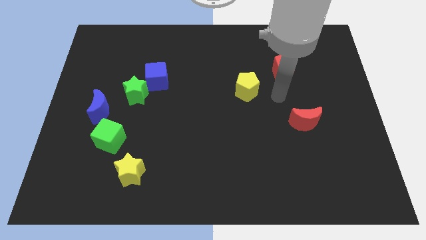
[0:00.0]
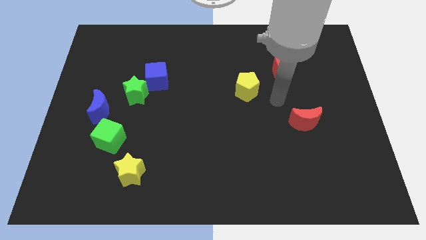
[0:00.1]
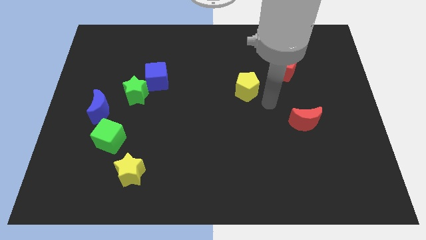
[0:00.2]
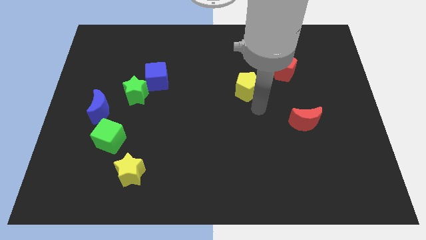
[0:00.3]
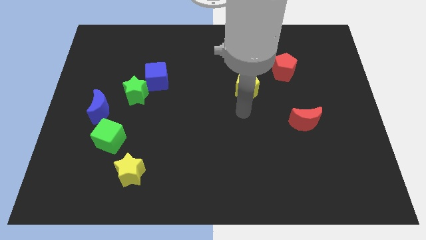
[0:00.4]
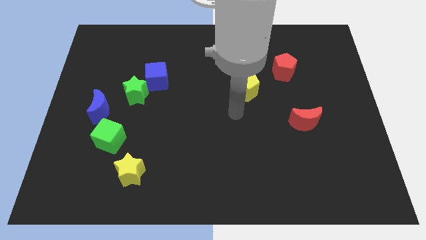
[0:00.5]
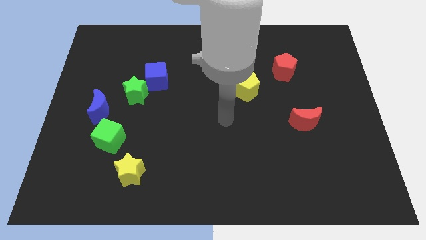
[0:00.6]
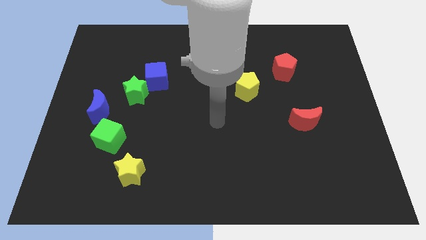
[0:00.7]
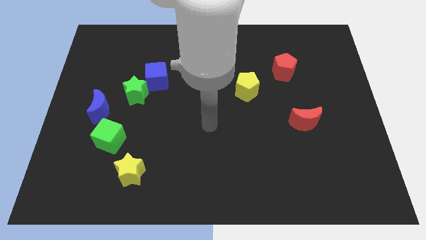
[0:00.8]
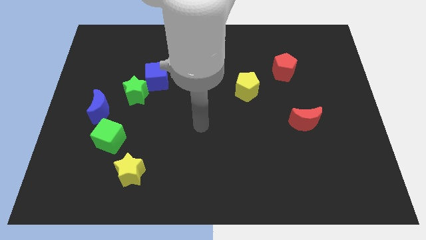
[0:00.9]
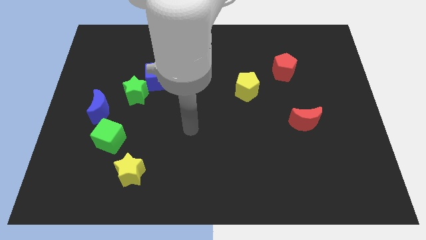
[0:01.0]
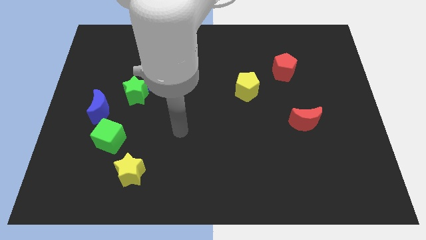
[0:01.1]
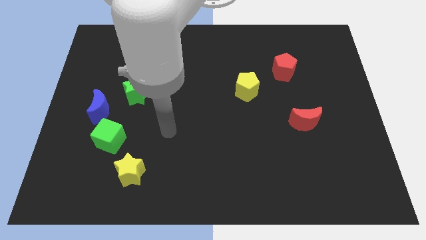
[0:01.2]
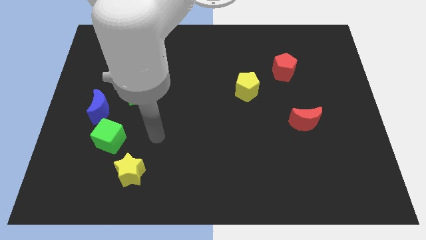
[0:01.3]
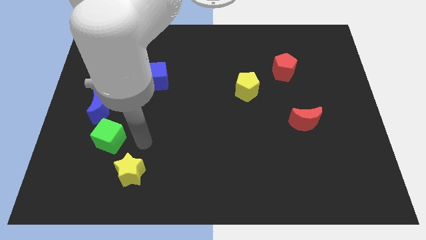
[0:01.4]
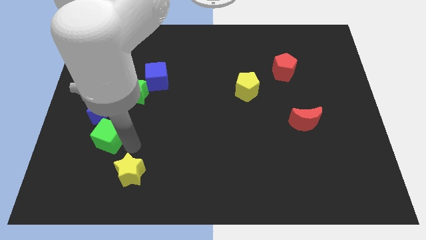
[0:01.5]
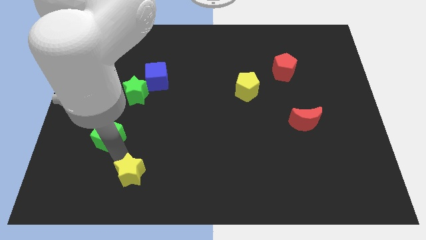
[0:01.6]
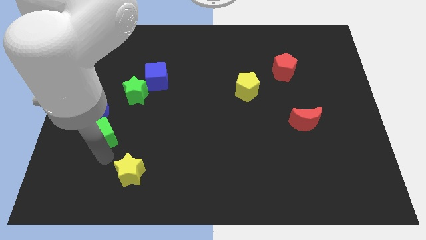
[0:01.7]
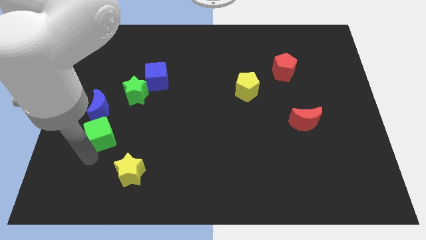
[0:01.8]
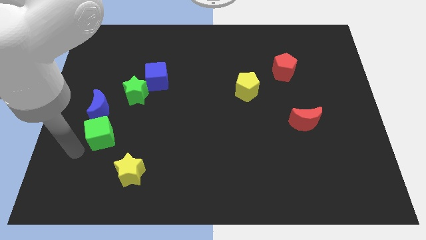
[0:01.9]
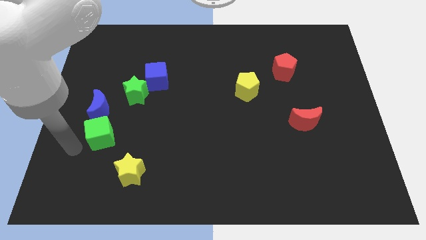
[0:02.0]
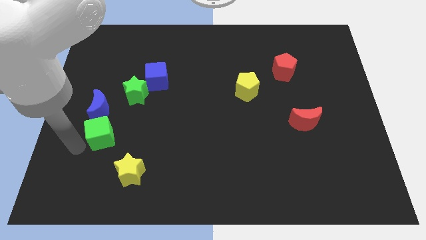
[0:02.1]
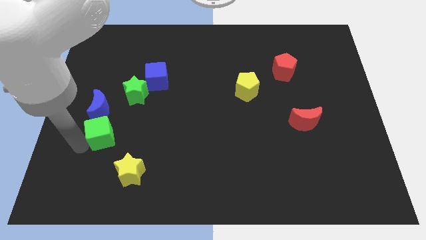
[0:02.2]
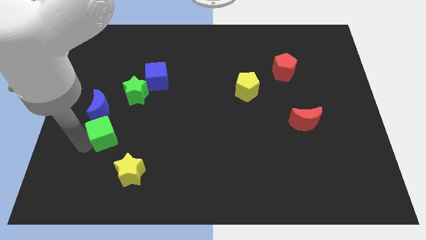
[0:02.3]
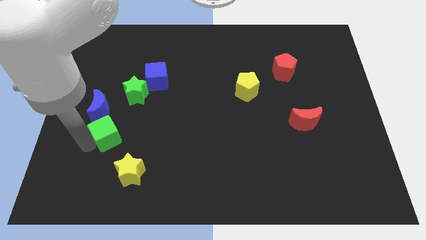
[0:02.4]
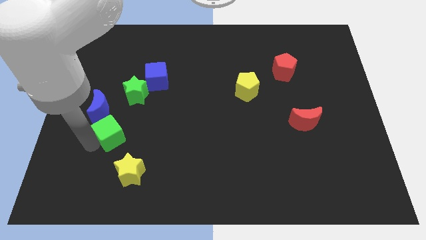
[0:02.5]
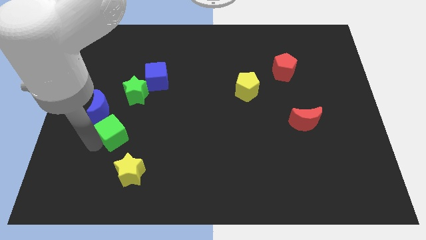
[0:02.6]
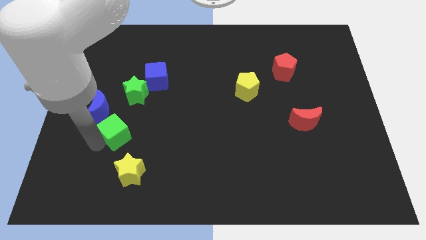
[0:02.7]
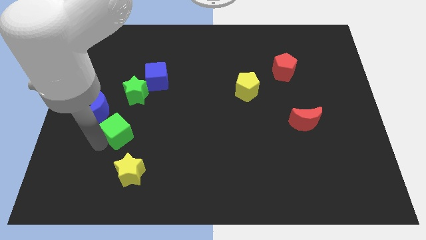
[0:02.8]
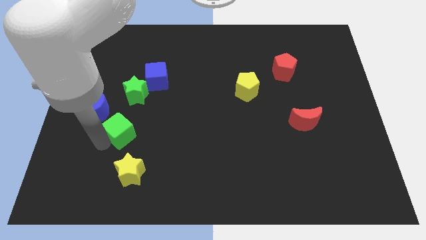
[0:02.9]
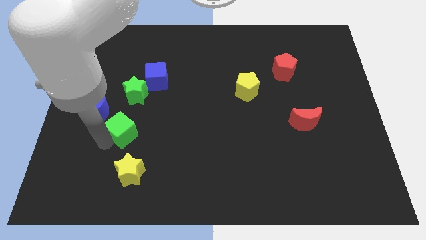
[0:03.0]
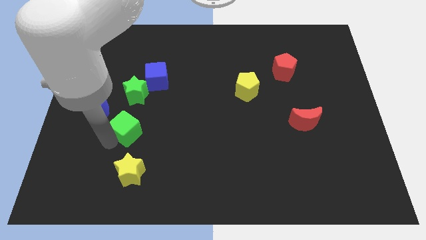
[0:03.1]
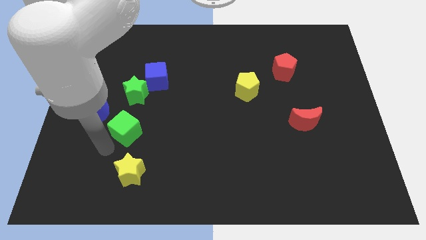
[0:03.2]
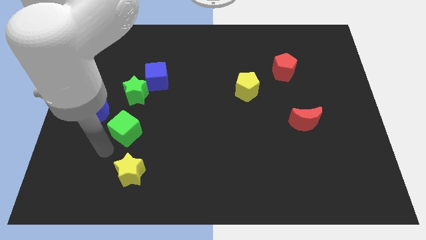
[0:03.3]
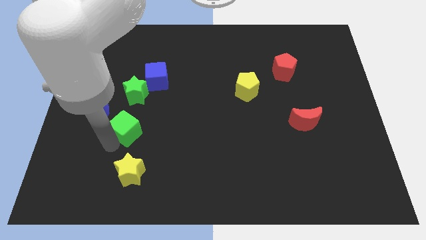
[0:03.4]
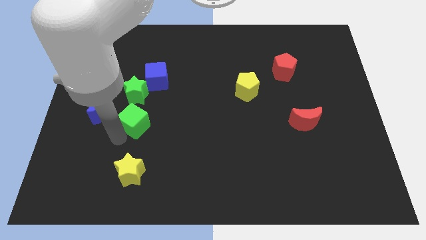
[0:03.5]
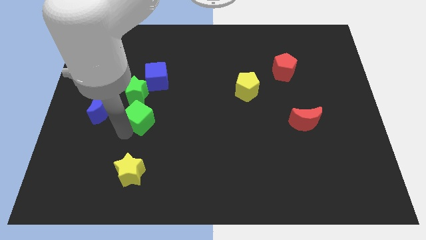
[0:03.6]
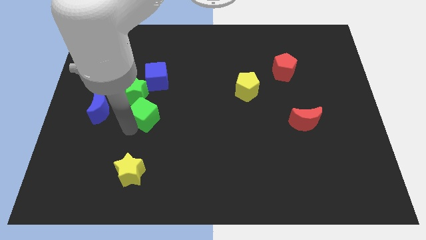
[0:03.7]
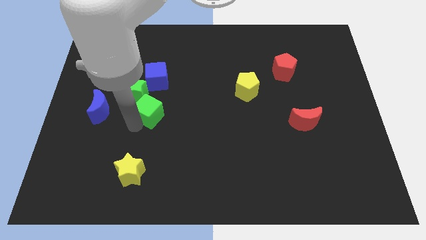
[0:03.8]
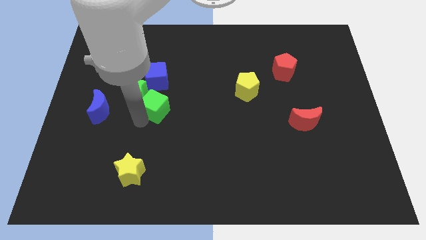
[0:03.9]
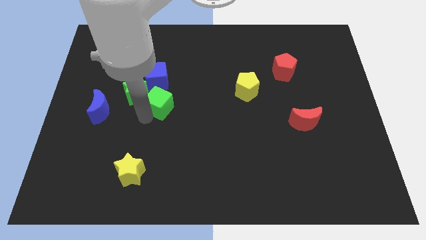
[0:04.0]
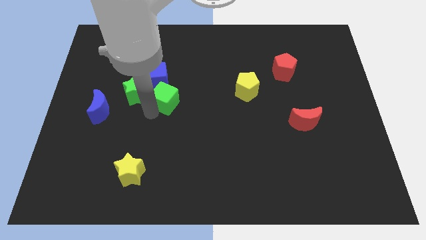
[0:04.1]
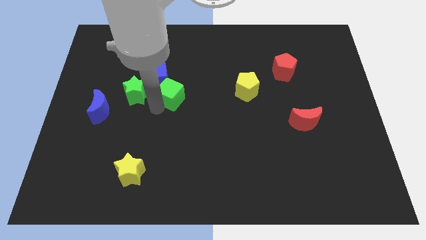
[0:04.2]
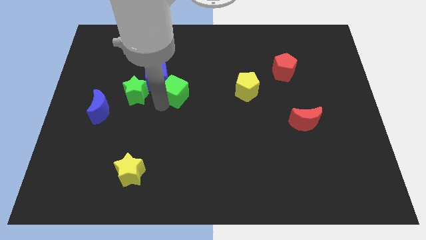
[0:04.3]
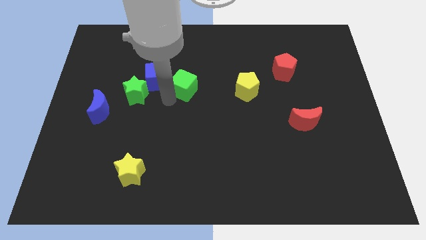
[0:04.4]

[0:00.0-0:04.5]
slide the green cube upwards and then to the right

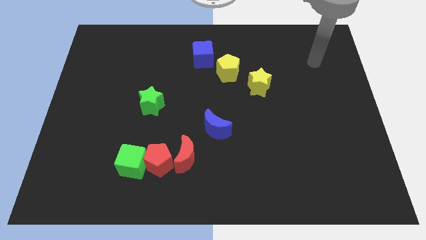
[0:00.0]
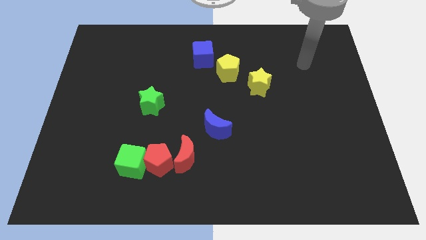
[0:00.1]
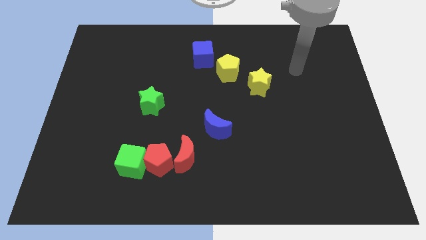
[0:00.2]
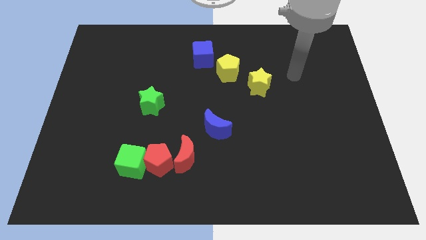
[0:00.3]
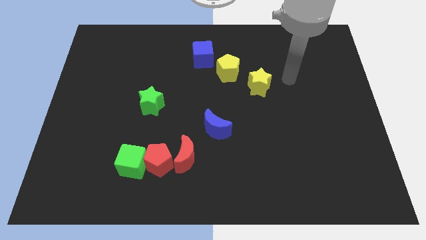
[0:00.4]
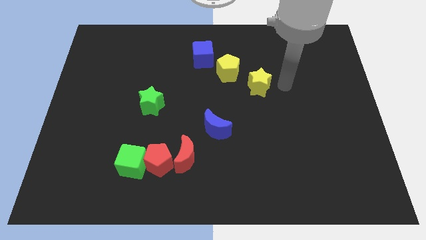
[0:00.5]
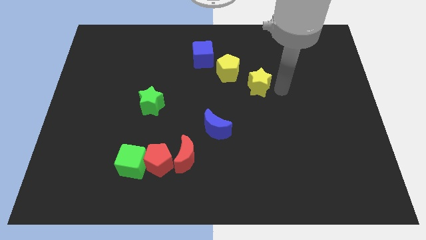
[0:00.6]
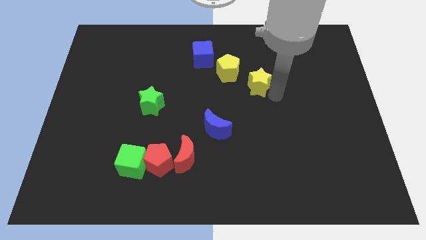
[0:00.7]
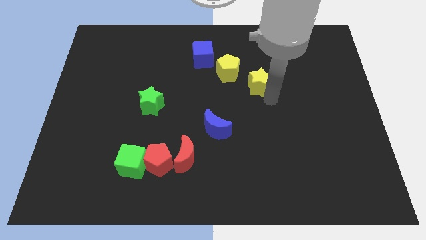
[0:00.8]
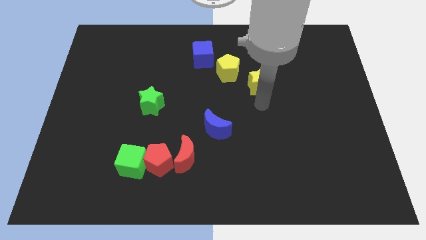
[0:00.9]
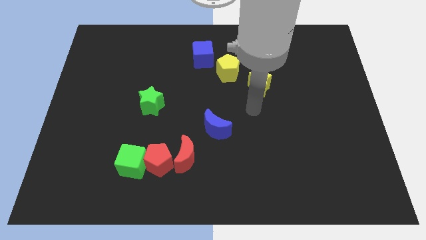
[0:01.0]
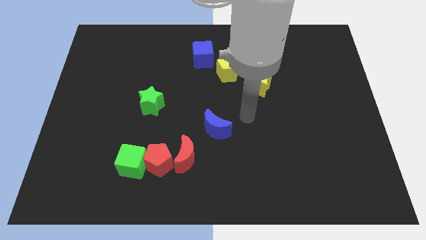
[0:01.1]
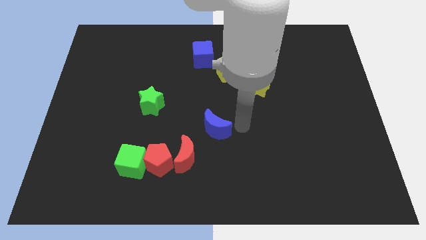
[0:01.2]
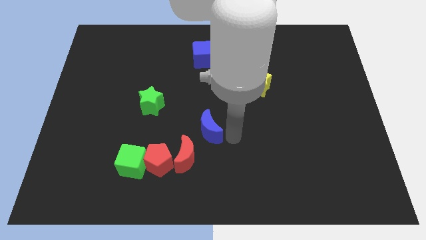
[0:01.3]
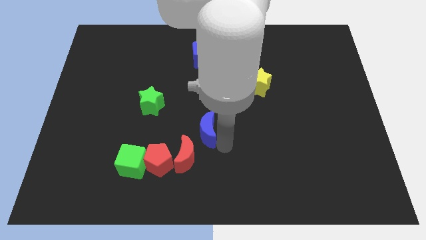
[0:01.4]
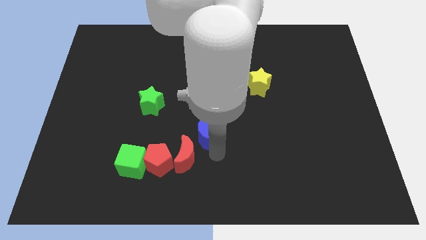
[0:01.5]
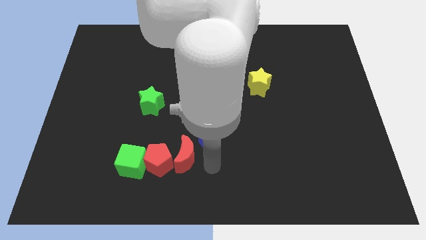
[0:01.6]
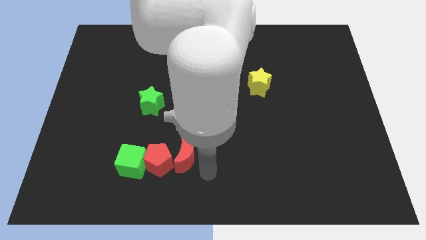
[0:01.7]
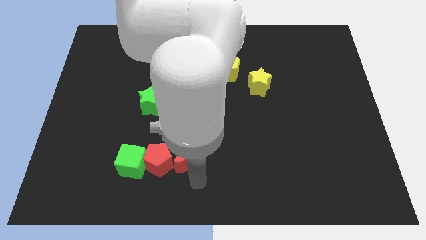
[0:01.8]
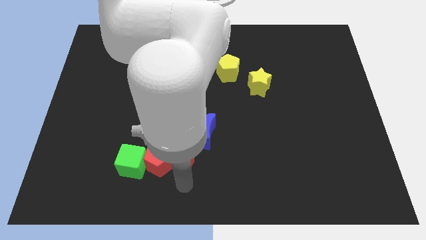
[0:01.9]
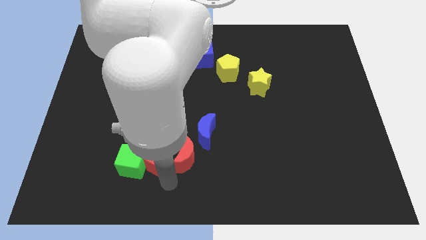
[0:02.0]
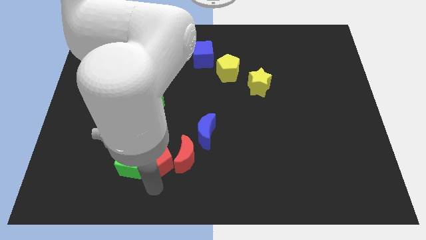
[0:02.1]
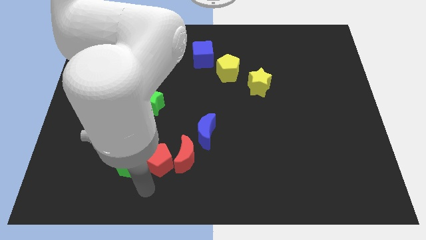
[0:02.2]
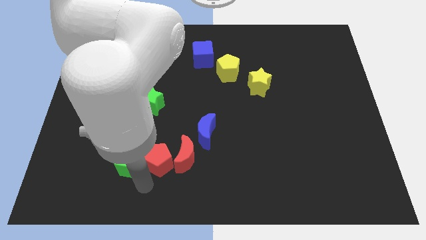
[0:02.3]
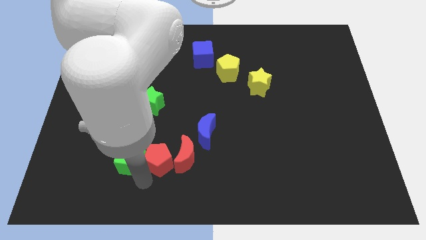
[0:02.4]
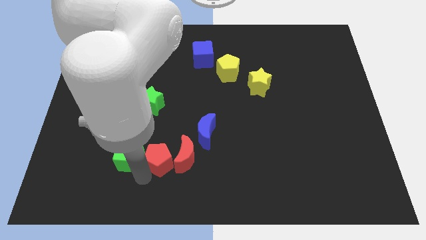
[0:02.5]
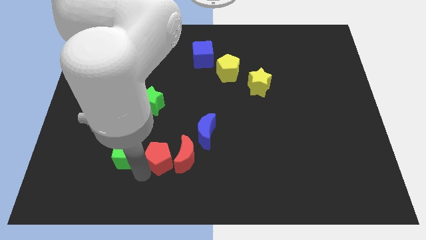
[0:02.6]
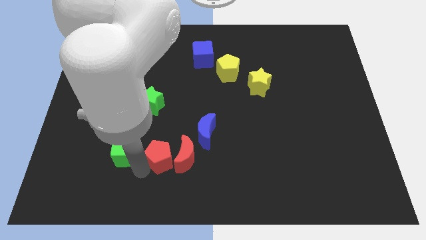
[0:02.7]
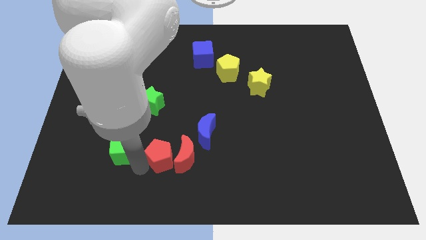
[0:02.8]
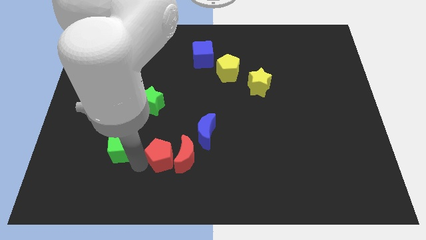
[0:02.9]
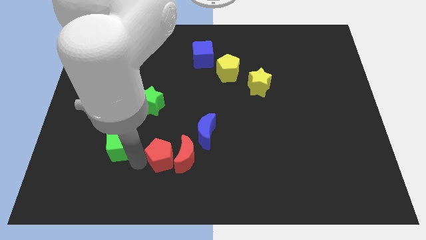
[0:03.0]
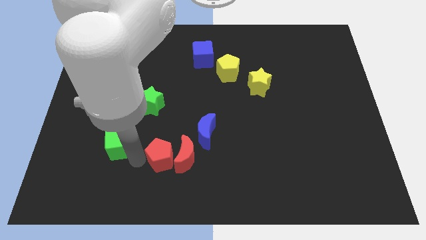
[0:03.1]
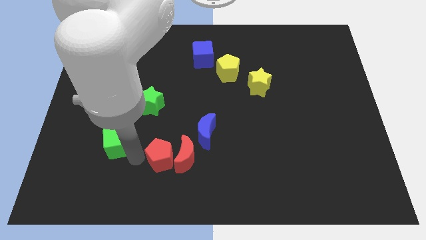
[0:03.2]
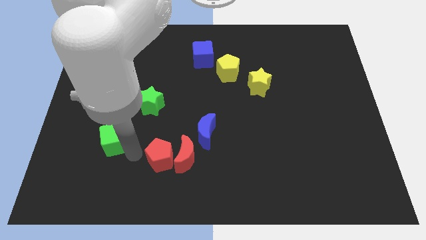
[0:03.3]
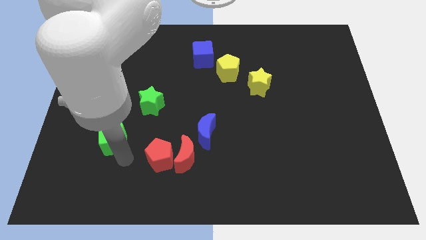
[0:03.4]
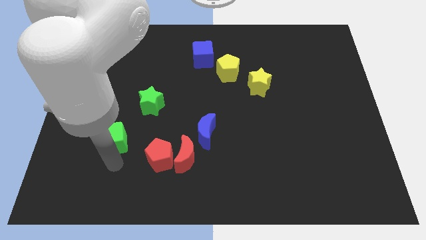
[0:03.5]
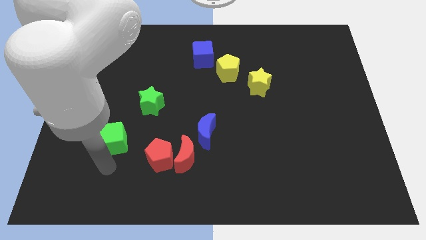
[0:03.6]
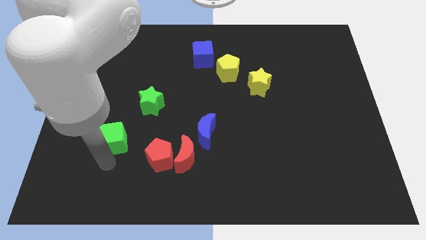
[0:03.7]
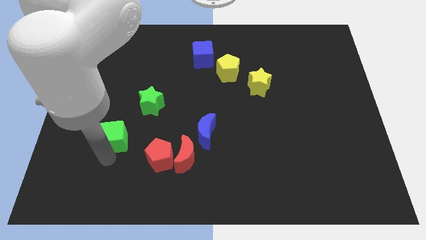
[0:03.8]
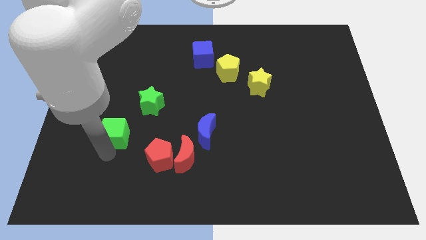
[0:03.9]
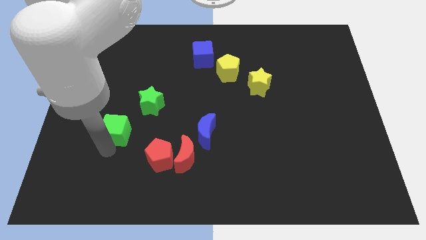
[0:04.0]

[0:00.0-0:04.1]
push the green cube up a bit
